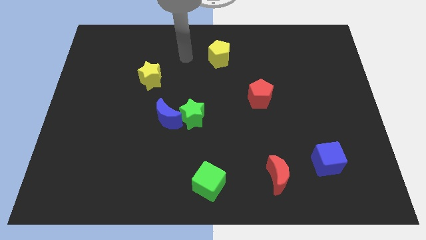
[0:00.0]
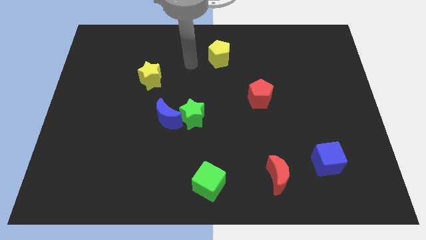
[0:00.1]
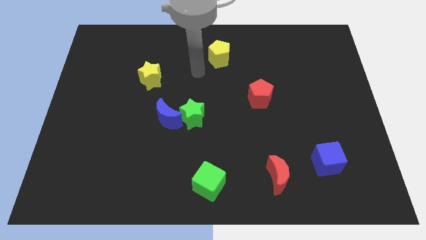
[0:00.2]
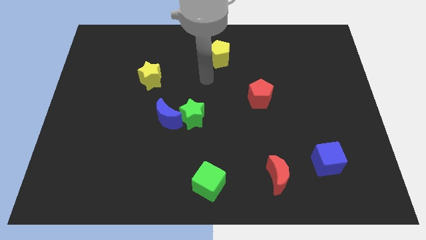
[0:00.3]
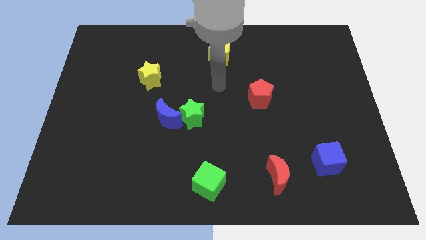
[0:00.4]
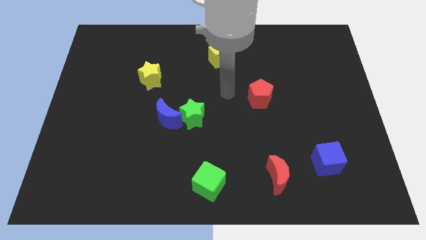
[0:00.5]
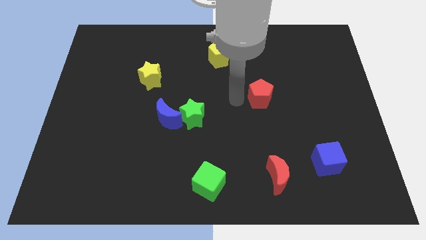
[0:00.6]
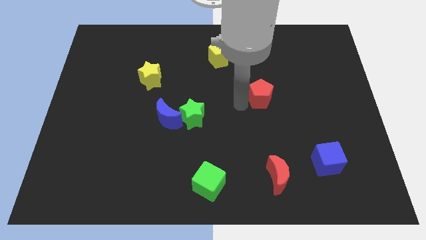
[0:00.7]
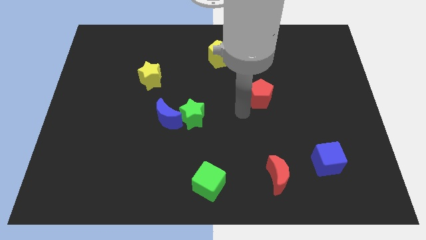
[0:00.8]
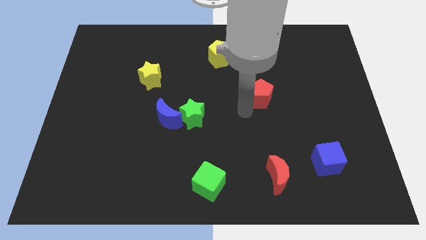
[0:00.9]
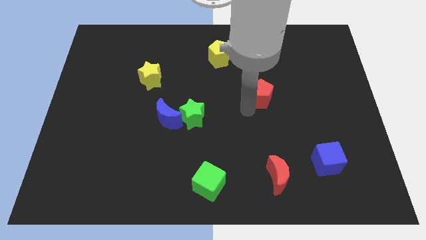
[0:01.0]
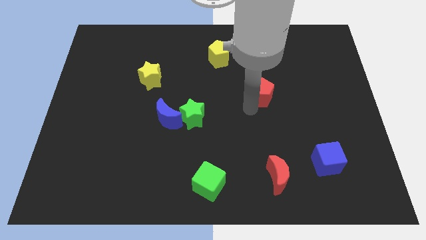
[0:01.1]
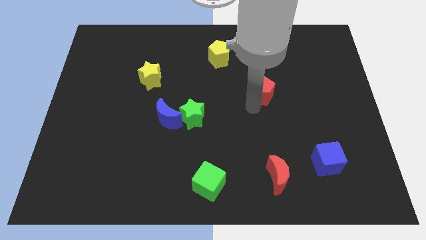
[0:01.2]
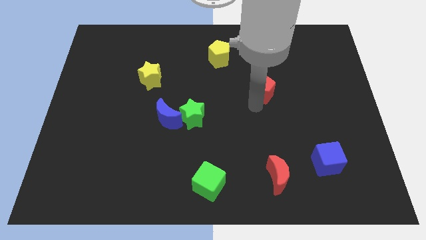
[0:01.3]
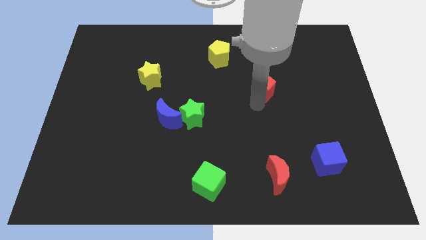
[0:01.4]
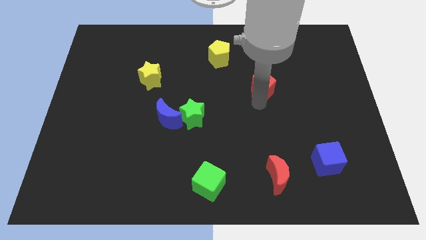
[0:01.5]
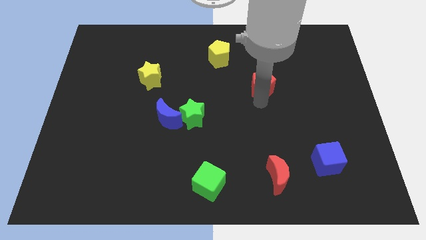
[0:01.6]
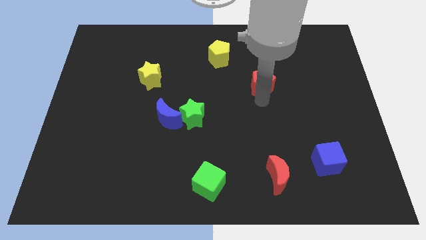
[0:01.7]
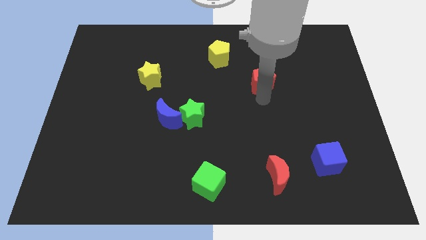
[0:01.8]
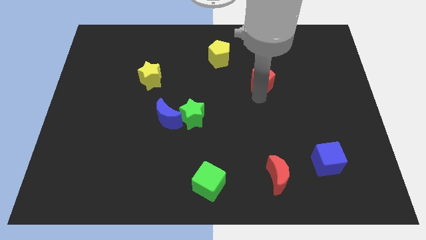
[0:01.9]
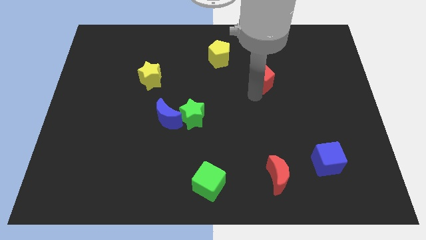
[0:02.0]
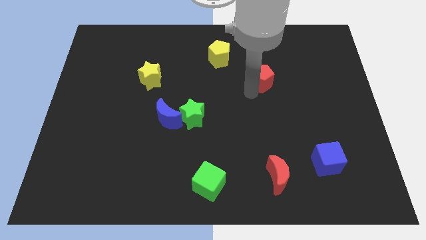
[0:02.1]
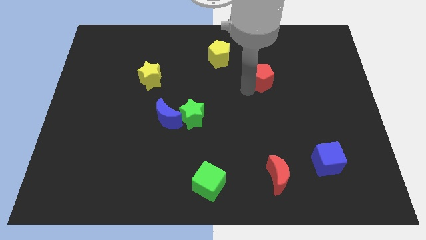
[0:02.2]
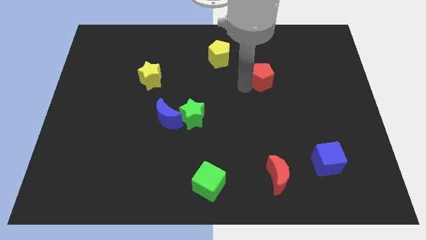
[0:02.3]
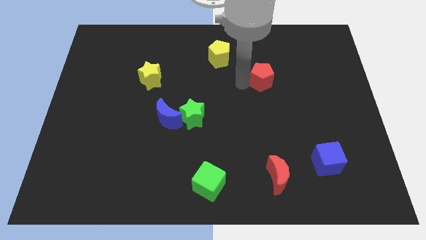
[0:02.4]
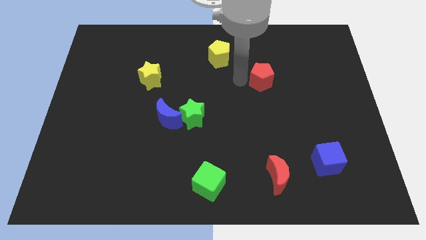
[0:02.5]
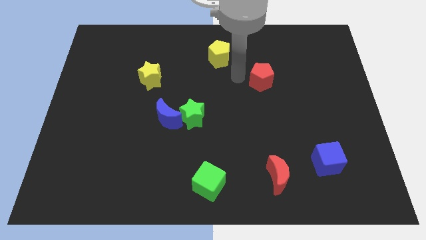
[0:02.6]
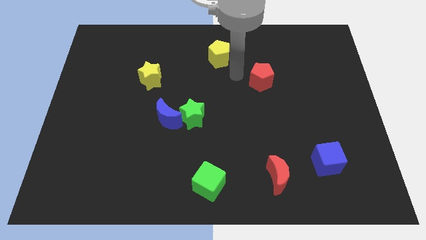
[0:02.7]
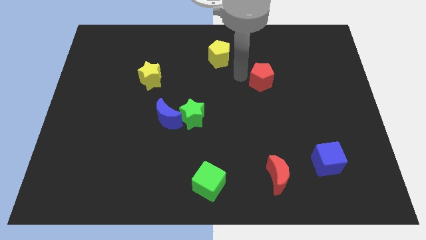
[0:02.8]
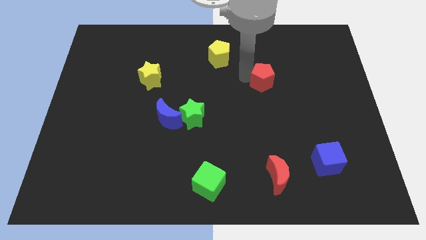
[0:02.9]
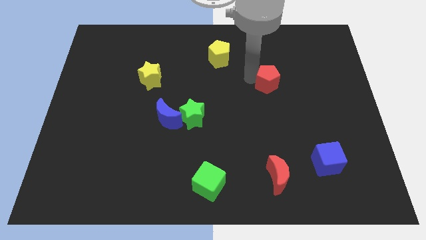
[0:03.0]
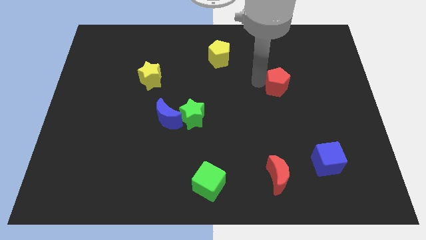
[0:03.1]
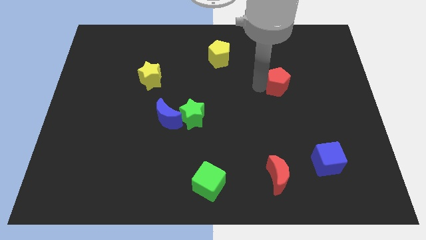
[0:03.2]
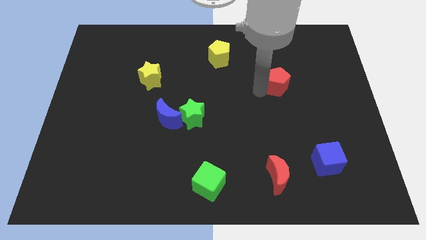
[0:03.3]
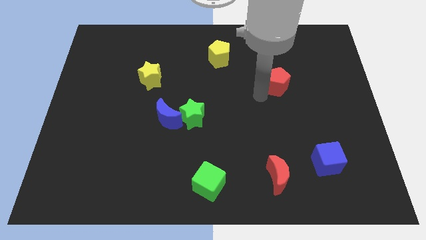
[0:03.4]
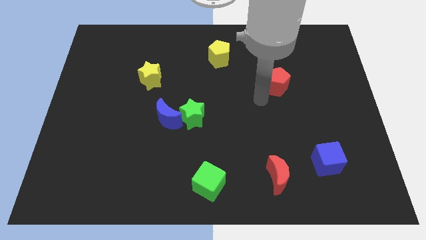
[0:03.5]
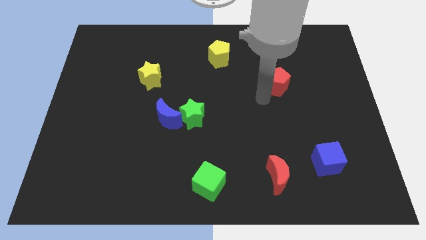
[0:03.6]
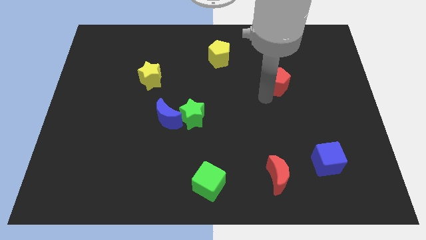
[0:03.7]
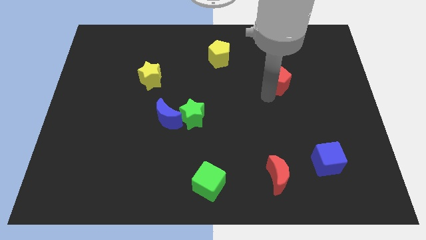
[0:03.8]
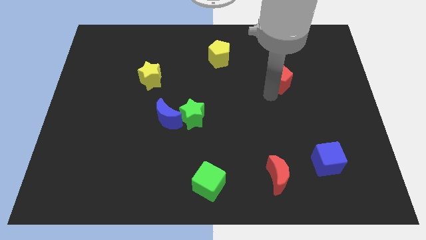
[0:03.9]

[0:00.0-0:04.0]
move the red pentagon a bit up and then to the right

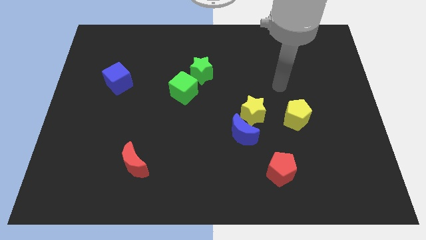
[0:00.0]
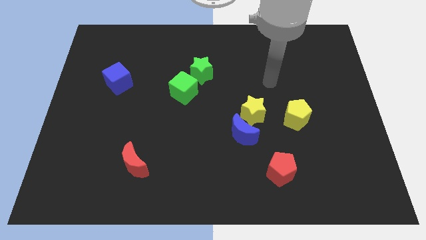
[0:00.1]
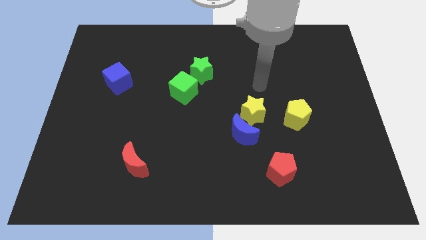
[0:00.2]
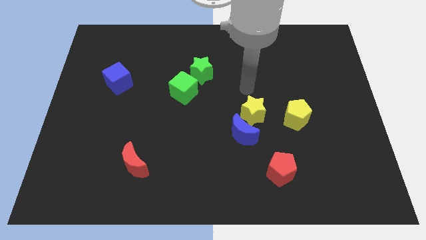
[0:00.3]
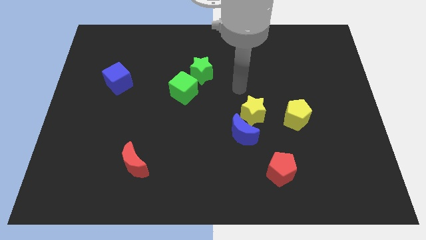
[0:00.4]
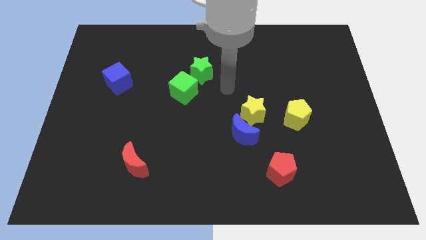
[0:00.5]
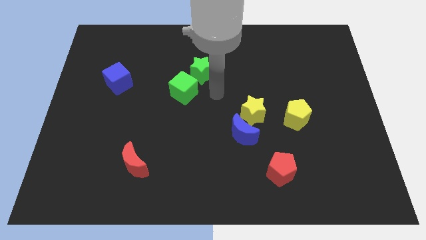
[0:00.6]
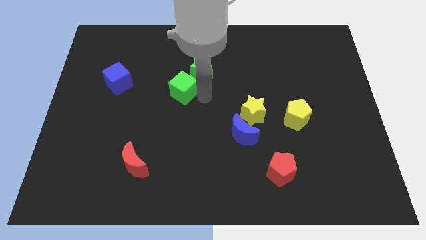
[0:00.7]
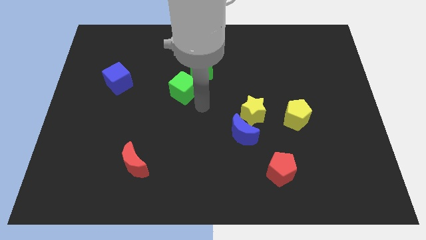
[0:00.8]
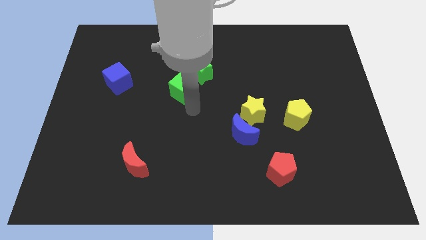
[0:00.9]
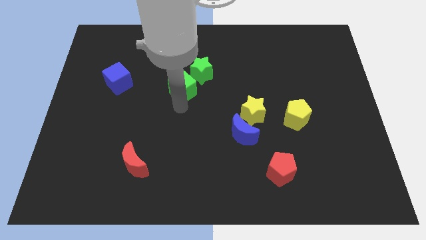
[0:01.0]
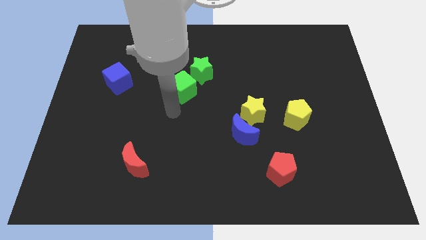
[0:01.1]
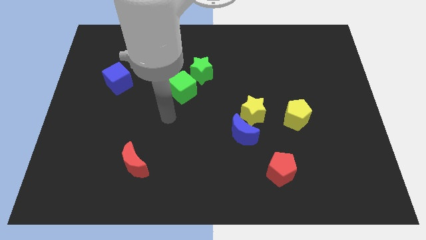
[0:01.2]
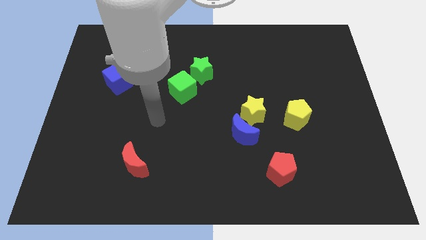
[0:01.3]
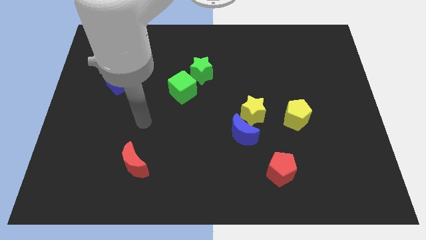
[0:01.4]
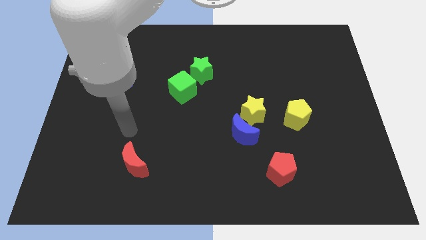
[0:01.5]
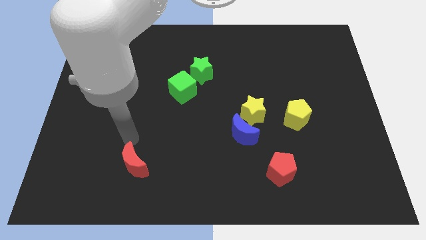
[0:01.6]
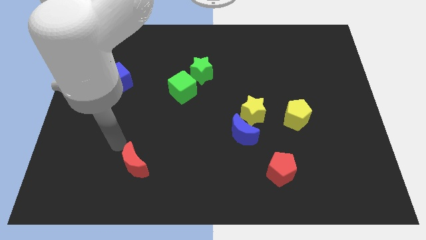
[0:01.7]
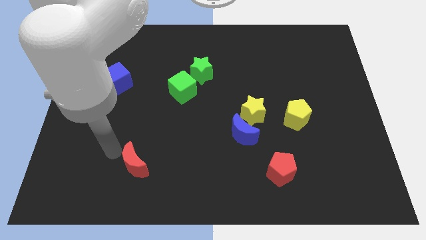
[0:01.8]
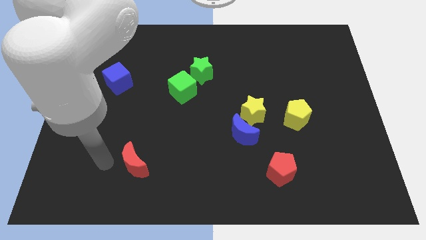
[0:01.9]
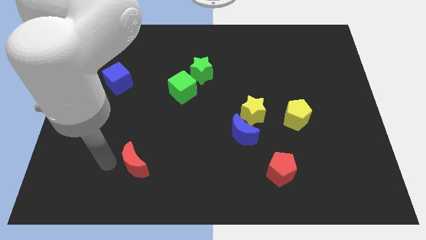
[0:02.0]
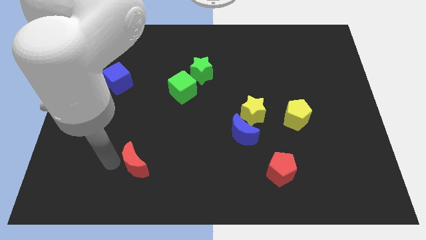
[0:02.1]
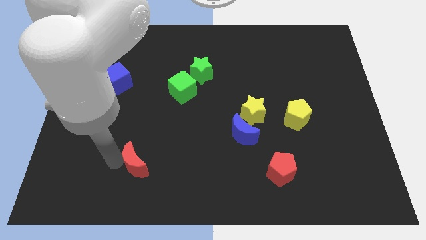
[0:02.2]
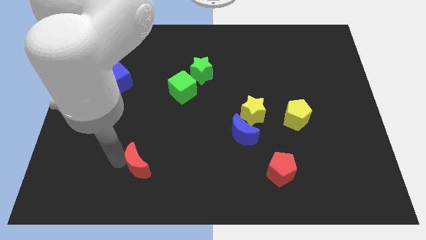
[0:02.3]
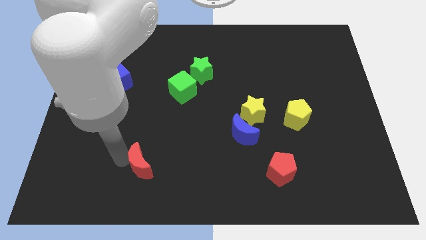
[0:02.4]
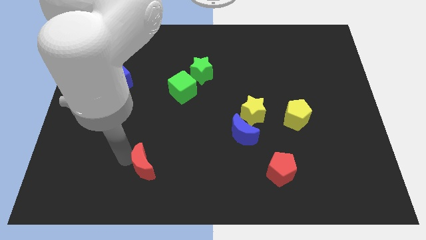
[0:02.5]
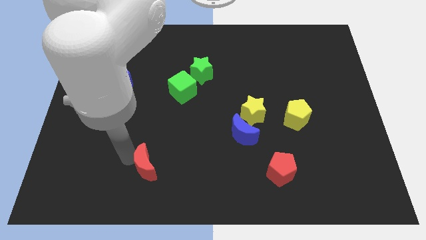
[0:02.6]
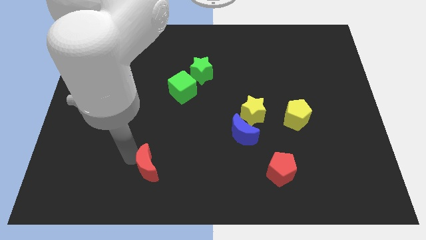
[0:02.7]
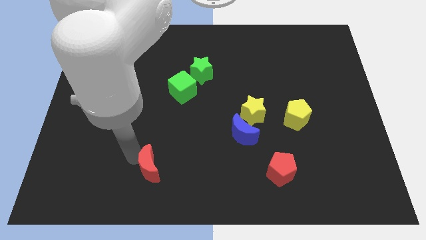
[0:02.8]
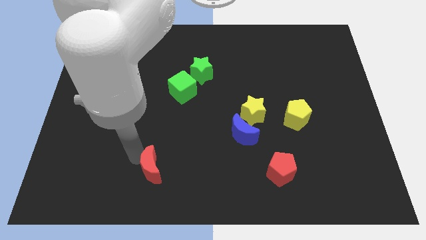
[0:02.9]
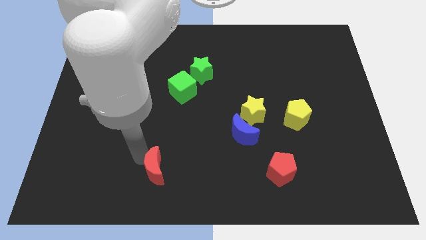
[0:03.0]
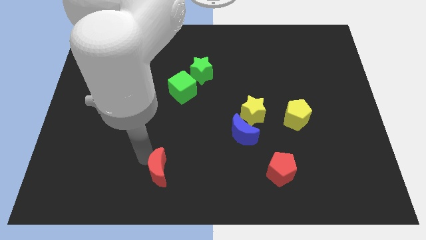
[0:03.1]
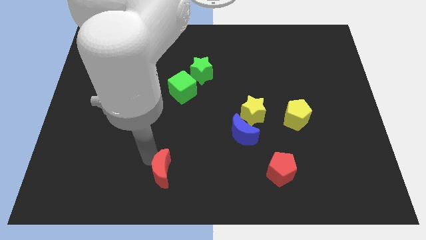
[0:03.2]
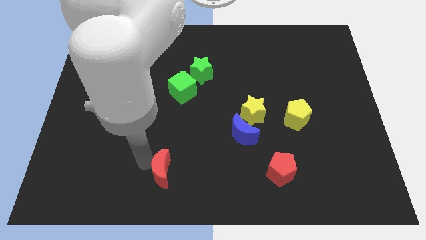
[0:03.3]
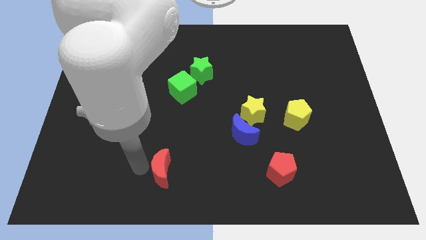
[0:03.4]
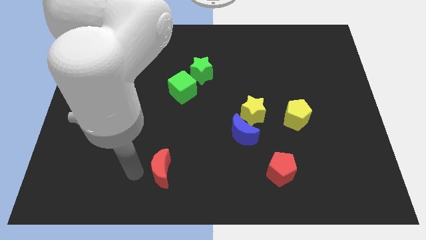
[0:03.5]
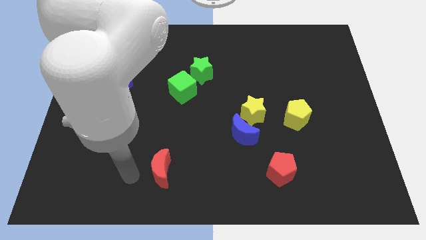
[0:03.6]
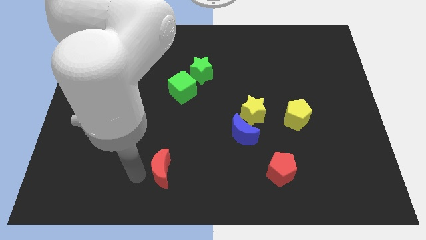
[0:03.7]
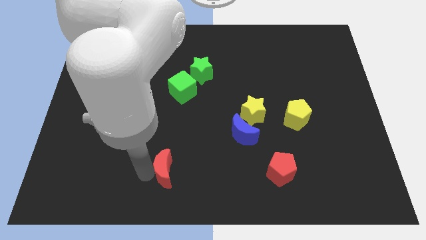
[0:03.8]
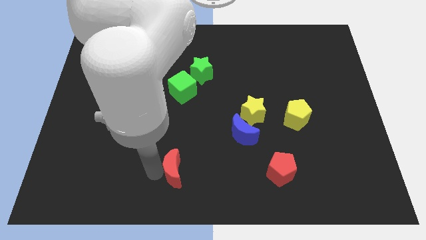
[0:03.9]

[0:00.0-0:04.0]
move the red moon right a bit

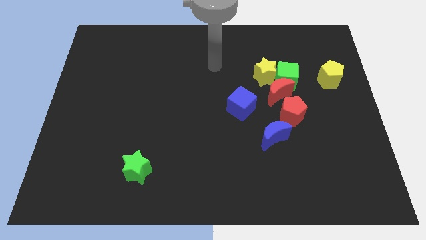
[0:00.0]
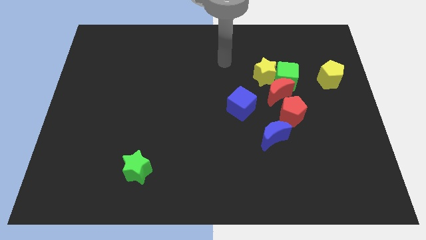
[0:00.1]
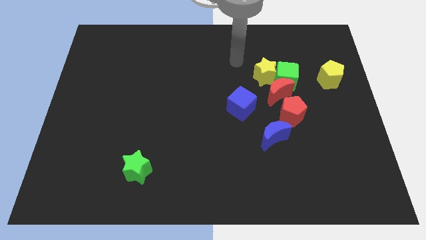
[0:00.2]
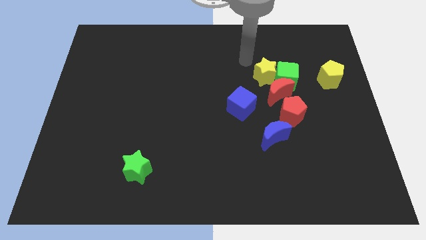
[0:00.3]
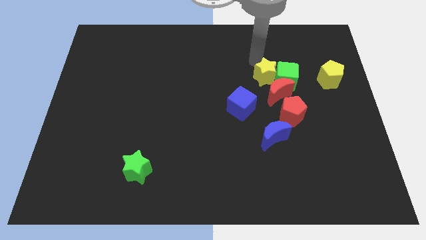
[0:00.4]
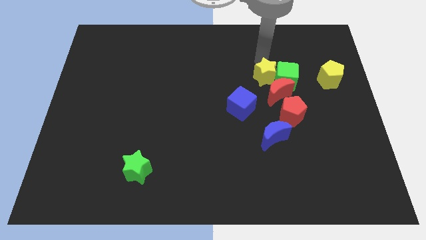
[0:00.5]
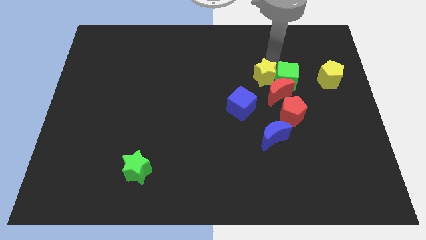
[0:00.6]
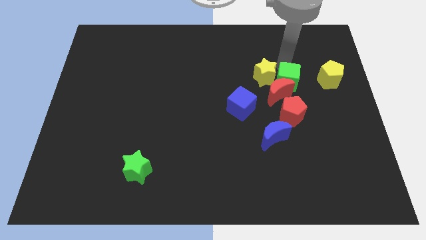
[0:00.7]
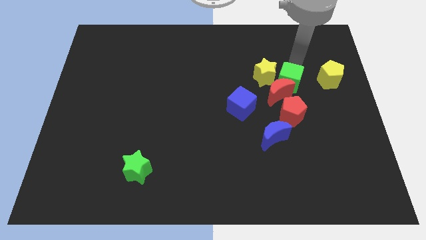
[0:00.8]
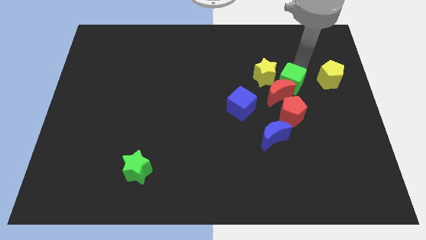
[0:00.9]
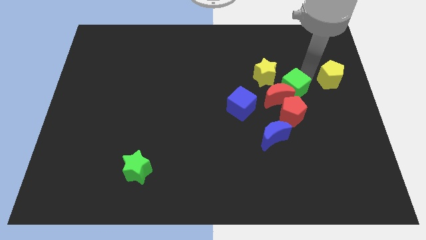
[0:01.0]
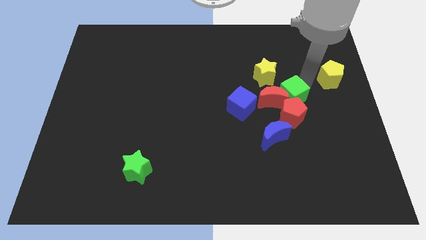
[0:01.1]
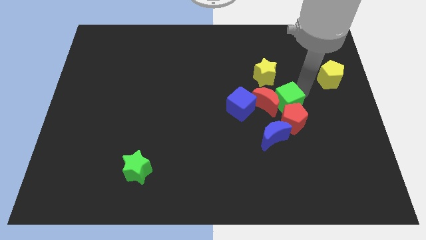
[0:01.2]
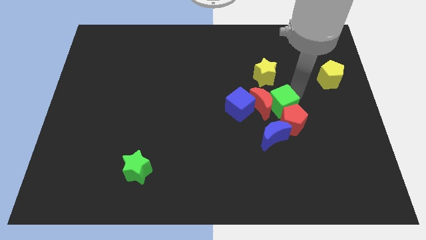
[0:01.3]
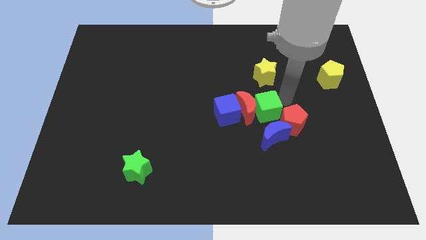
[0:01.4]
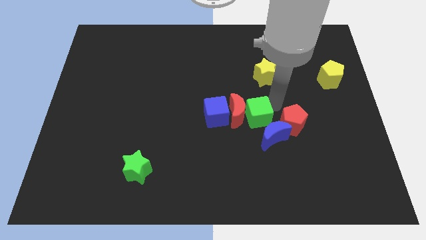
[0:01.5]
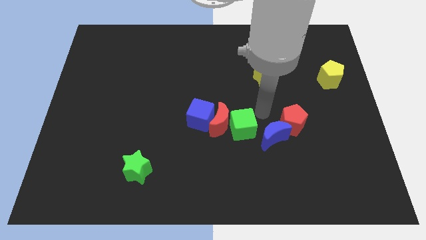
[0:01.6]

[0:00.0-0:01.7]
push the blue cube a little to the left
